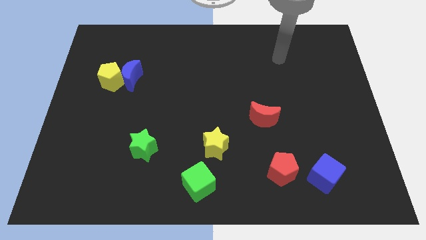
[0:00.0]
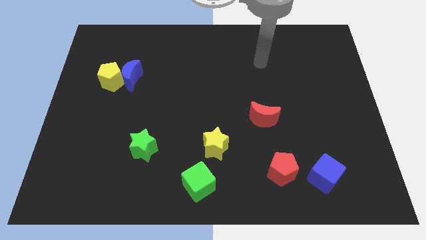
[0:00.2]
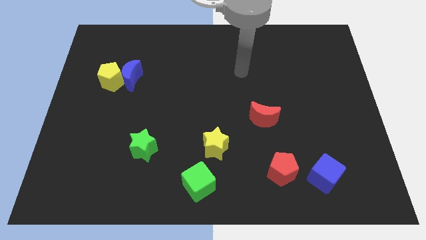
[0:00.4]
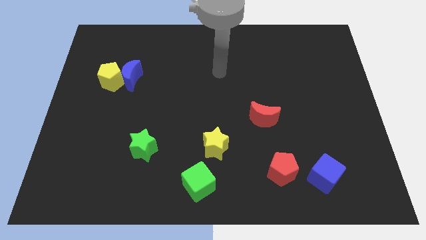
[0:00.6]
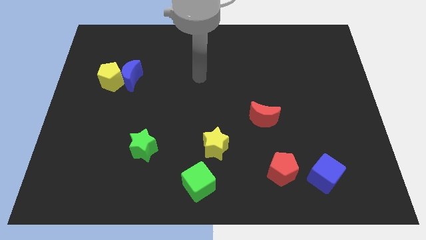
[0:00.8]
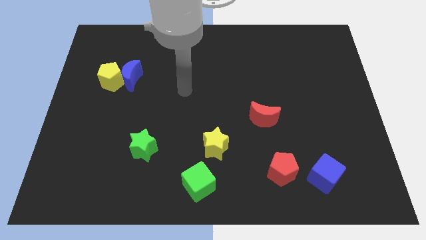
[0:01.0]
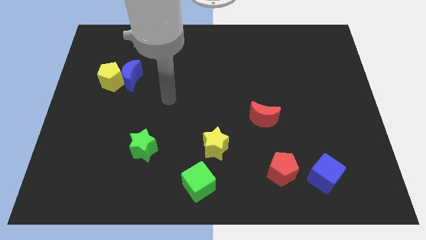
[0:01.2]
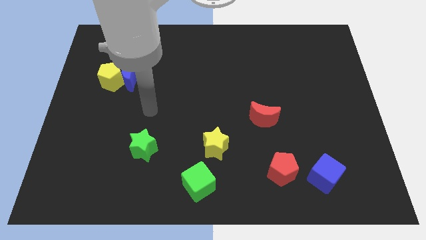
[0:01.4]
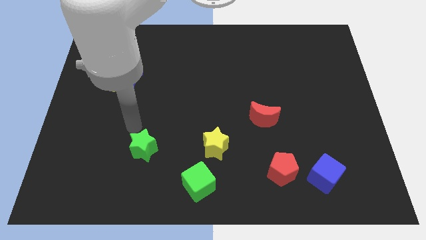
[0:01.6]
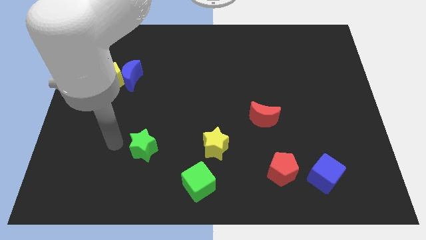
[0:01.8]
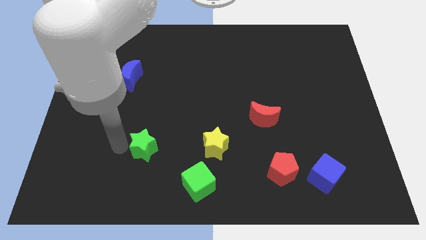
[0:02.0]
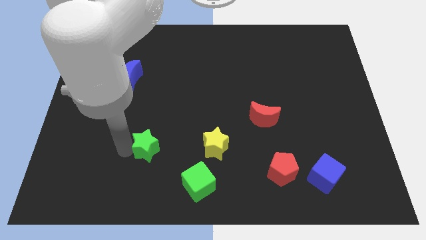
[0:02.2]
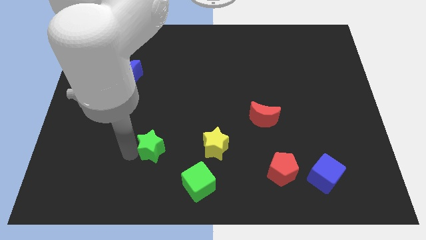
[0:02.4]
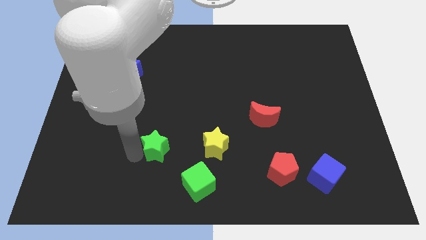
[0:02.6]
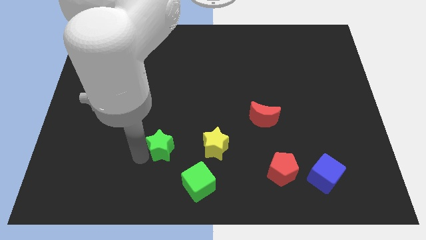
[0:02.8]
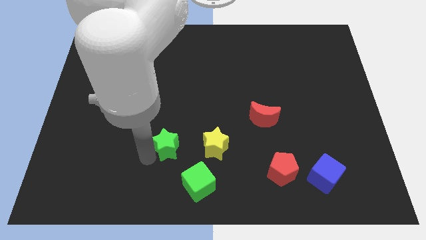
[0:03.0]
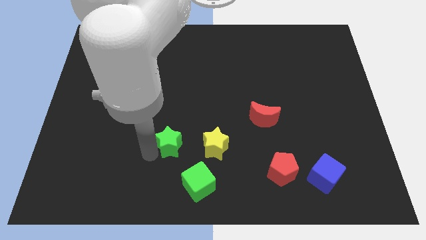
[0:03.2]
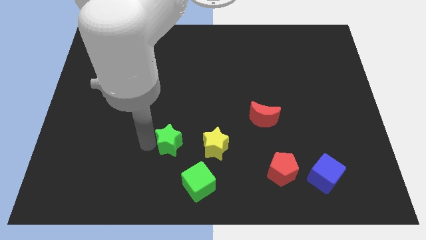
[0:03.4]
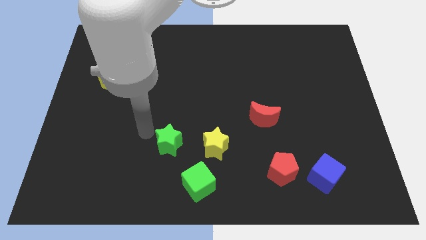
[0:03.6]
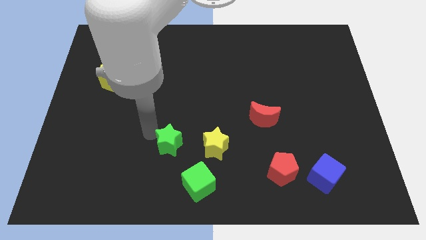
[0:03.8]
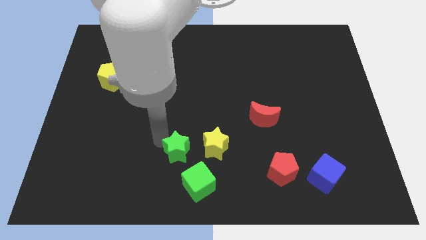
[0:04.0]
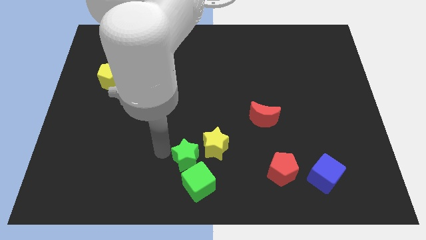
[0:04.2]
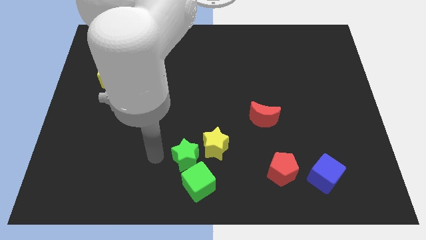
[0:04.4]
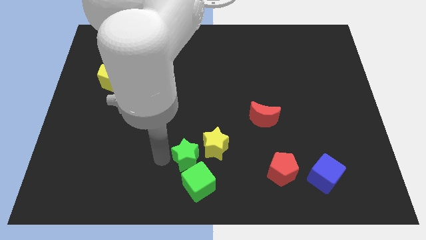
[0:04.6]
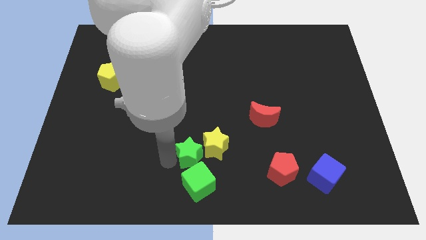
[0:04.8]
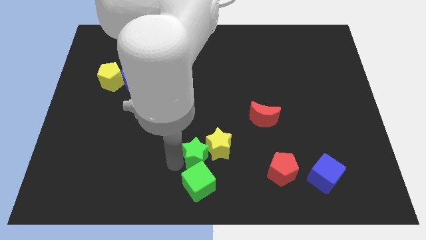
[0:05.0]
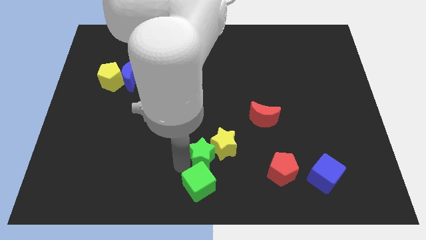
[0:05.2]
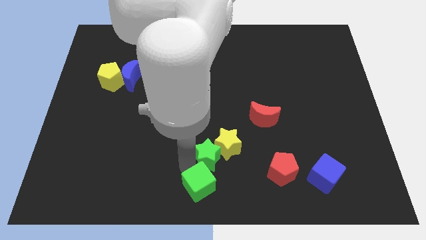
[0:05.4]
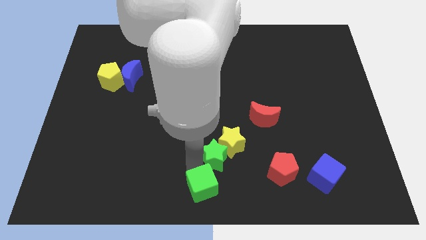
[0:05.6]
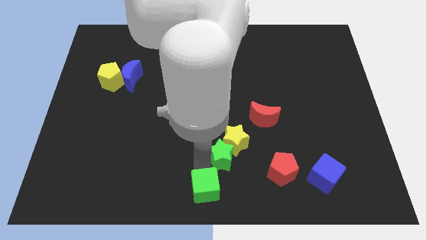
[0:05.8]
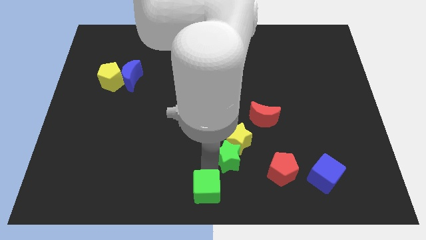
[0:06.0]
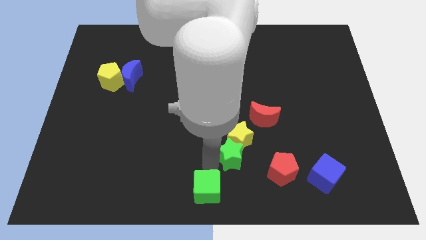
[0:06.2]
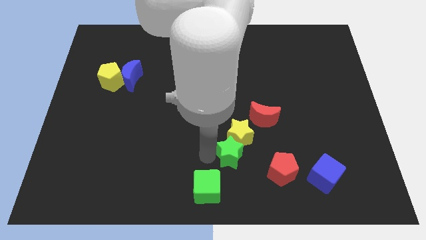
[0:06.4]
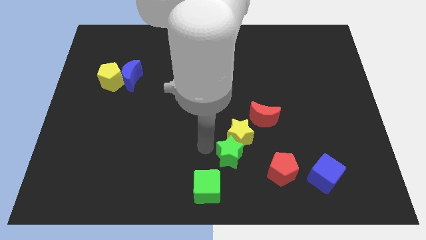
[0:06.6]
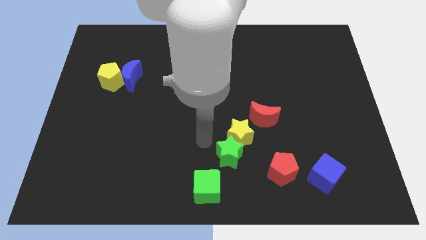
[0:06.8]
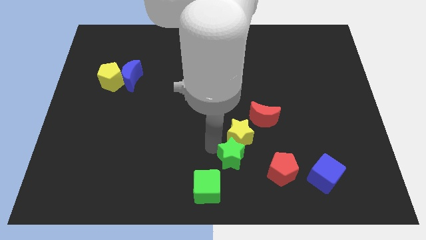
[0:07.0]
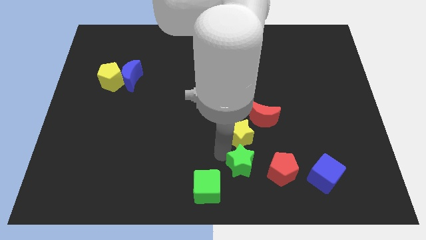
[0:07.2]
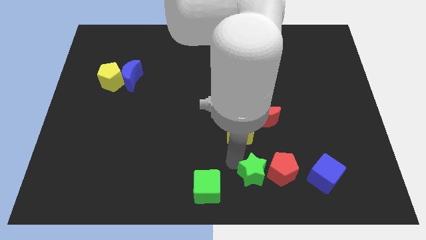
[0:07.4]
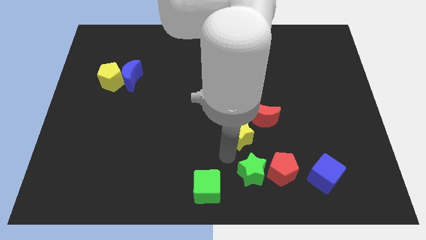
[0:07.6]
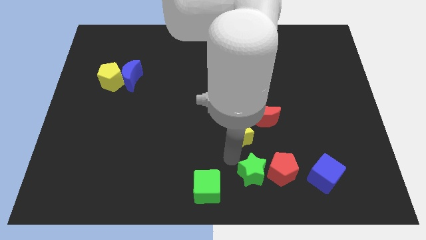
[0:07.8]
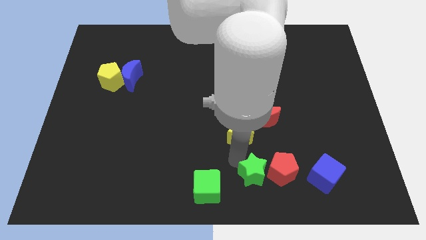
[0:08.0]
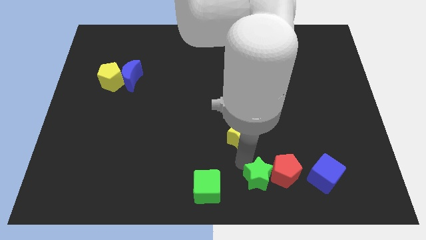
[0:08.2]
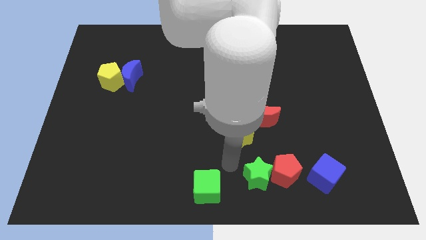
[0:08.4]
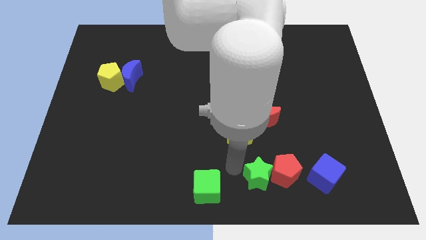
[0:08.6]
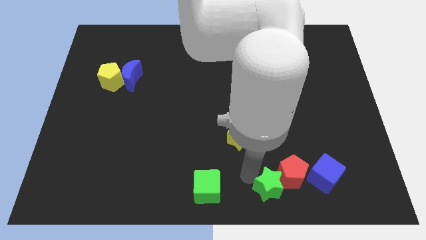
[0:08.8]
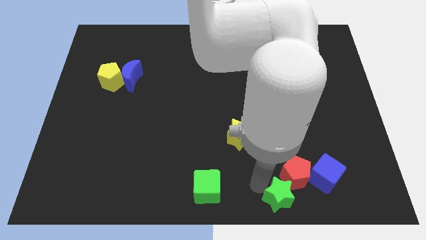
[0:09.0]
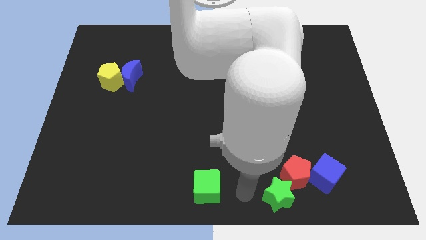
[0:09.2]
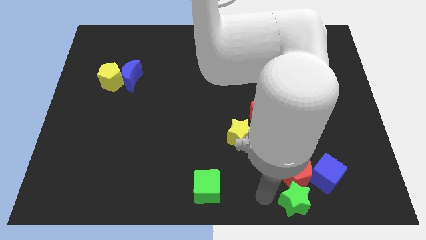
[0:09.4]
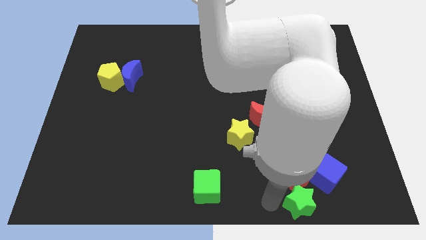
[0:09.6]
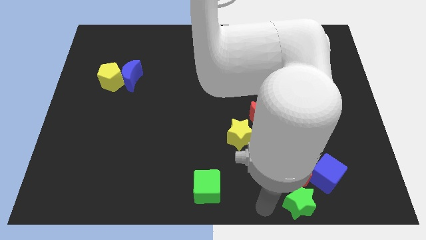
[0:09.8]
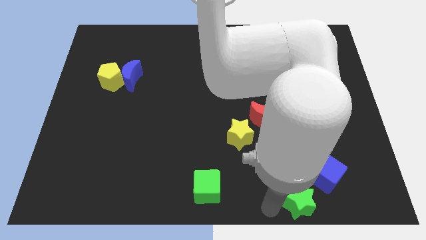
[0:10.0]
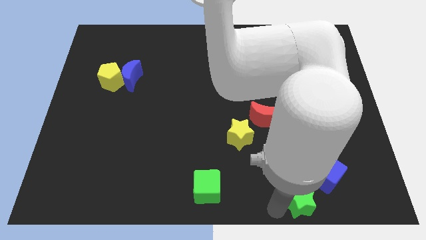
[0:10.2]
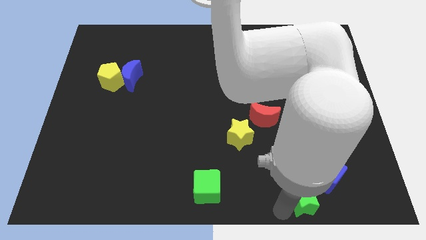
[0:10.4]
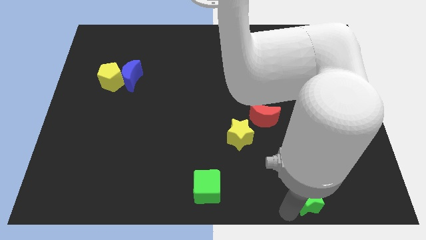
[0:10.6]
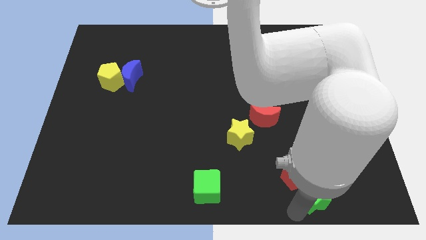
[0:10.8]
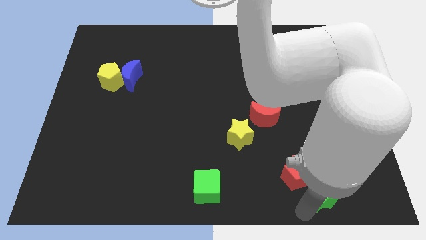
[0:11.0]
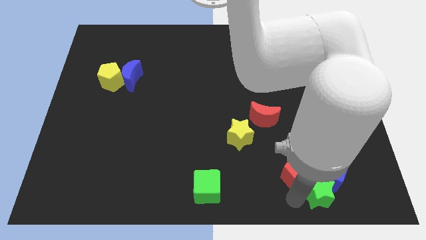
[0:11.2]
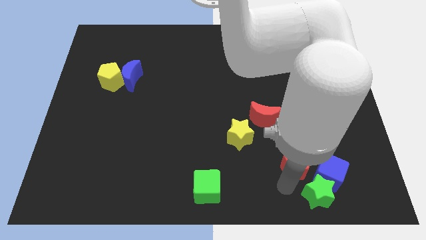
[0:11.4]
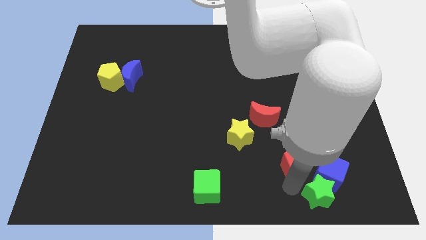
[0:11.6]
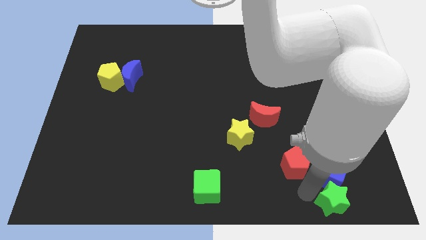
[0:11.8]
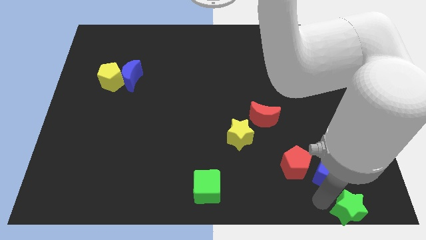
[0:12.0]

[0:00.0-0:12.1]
push the green star to the bottom right of the board
